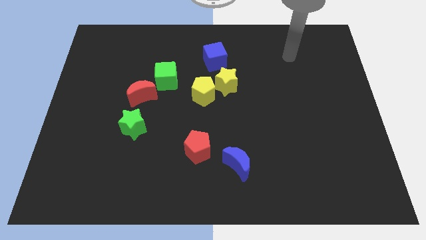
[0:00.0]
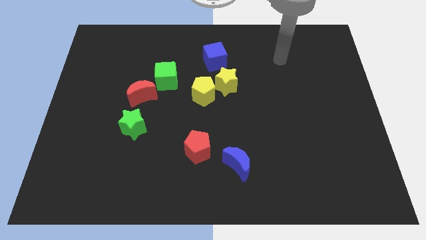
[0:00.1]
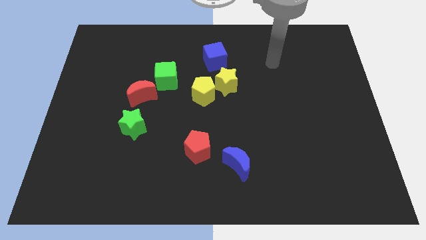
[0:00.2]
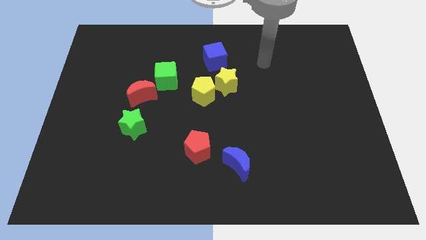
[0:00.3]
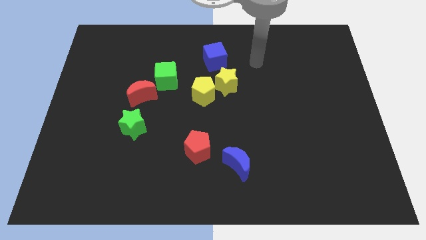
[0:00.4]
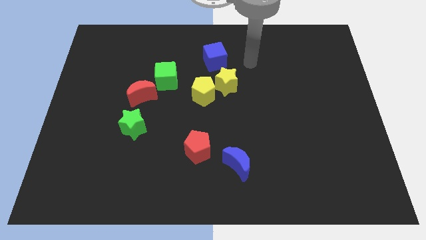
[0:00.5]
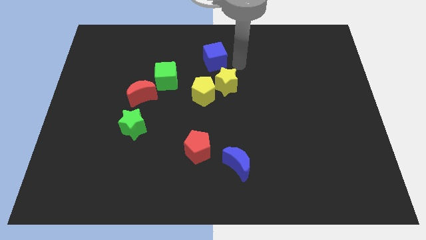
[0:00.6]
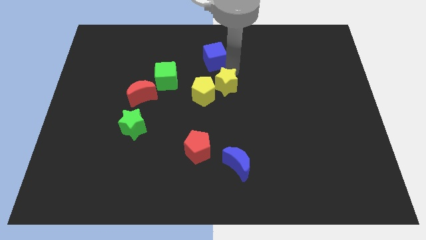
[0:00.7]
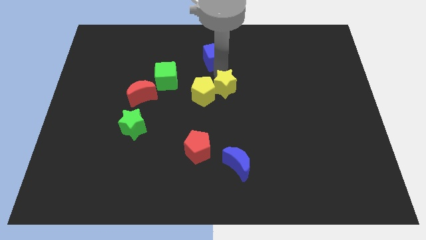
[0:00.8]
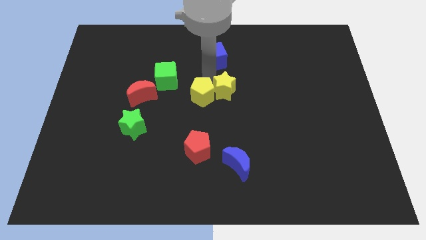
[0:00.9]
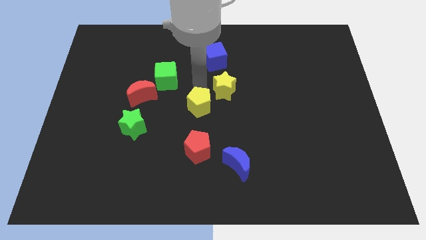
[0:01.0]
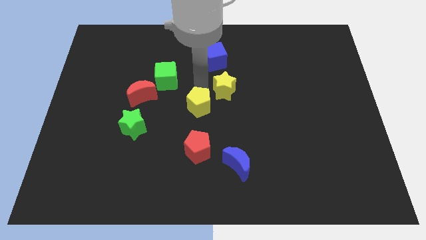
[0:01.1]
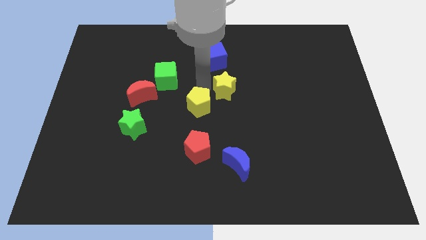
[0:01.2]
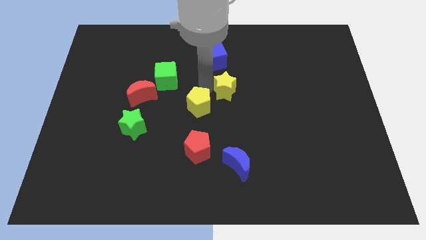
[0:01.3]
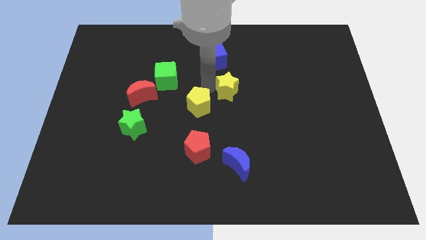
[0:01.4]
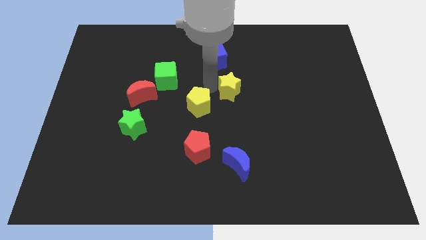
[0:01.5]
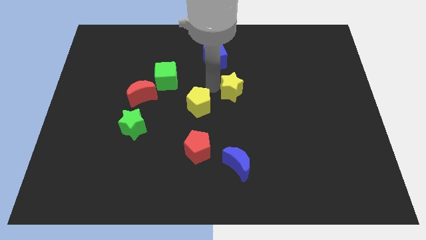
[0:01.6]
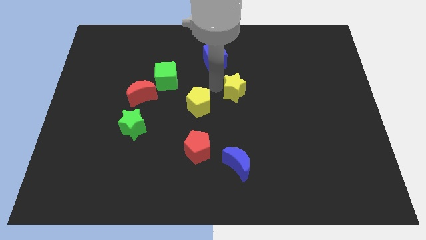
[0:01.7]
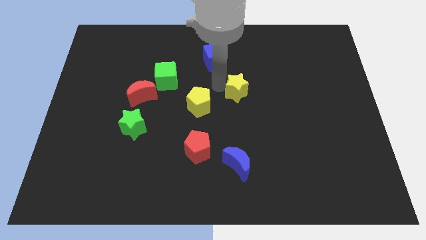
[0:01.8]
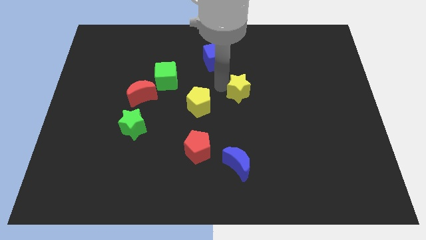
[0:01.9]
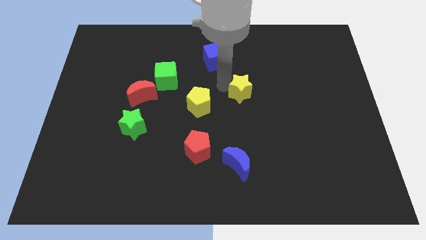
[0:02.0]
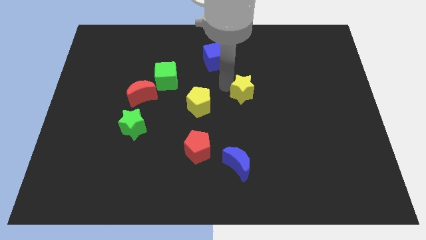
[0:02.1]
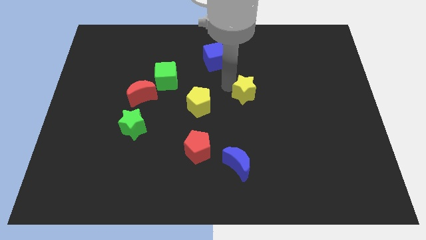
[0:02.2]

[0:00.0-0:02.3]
move the yellow star away from the yellow pentagon and blue cube

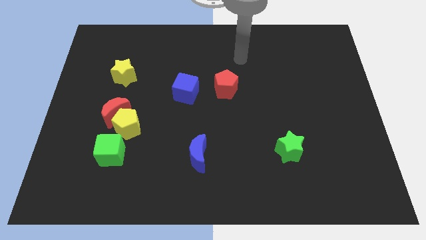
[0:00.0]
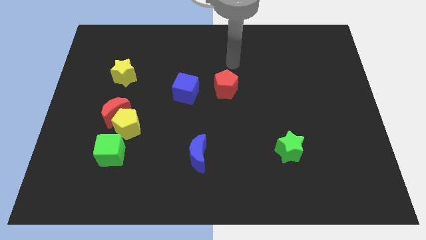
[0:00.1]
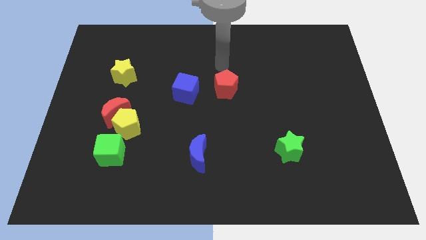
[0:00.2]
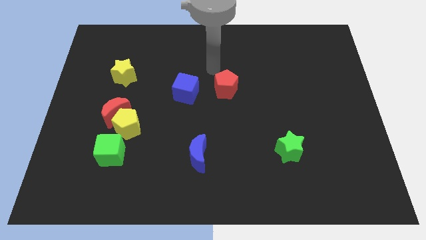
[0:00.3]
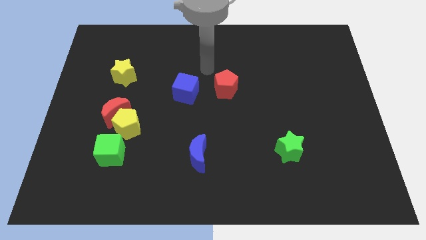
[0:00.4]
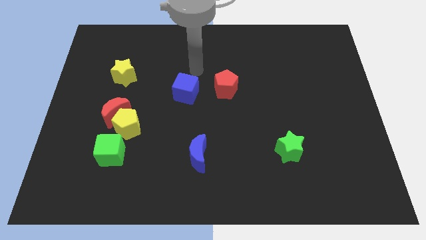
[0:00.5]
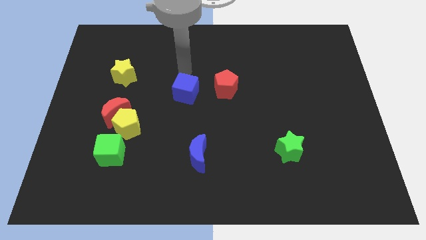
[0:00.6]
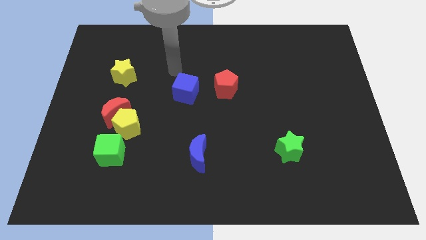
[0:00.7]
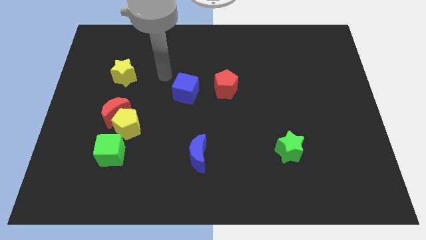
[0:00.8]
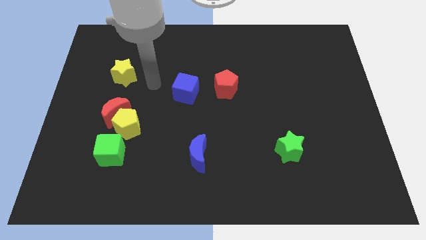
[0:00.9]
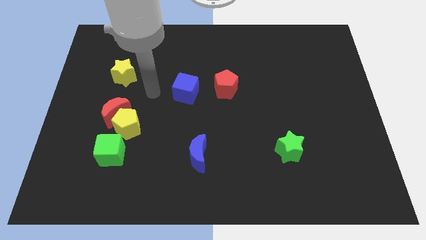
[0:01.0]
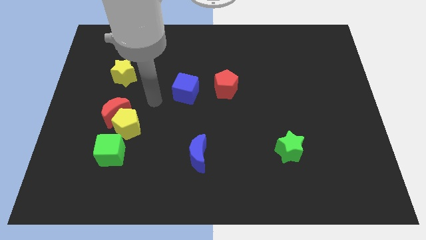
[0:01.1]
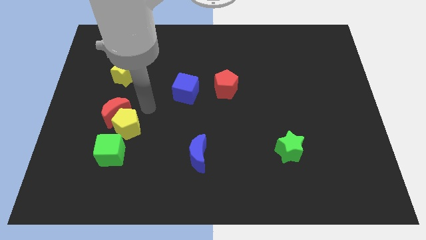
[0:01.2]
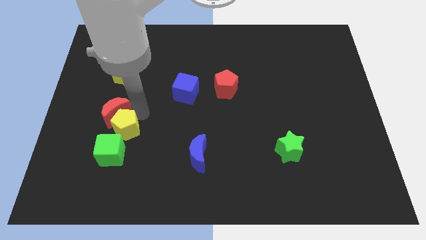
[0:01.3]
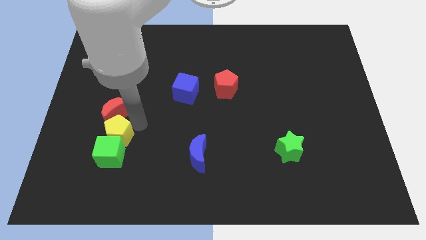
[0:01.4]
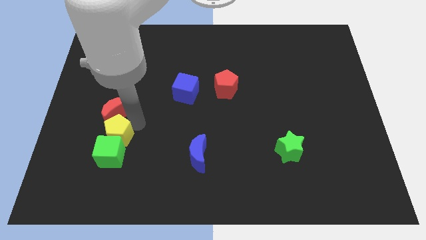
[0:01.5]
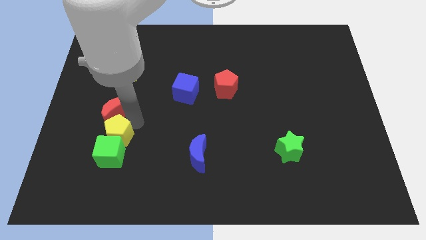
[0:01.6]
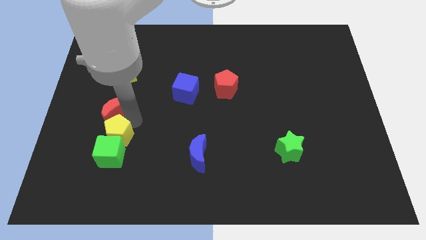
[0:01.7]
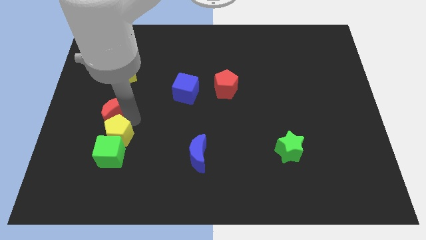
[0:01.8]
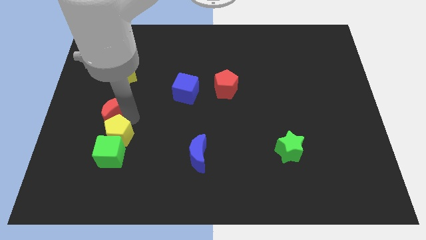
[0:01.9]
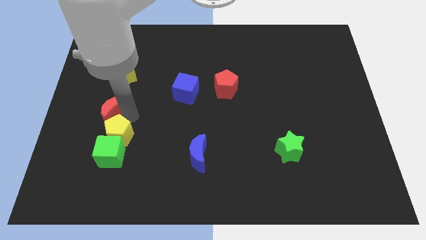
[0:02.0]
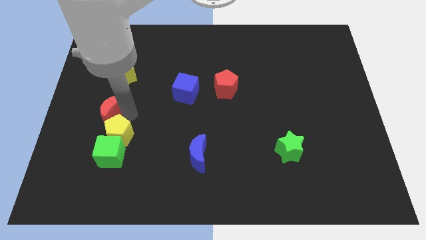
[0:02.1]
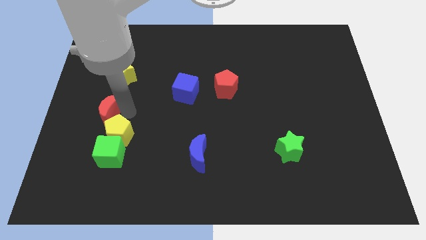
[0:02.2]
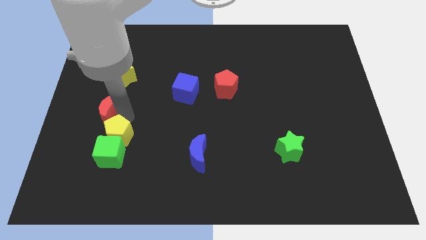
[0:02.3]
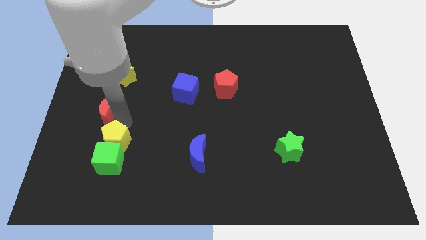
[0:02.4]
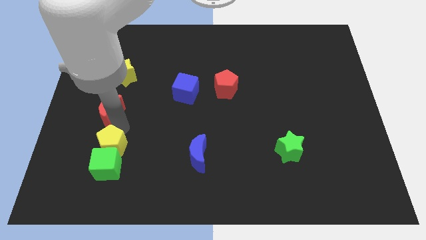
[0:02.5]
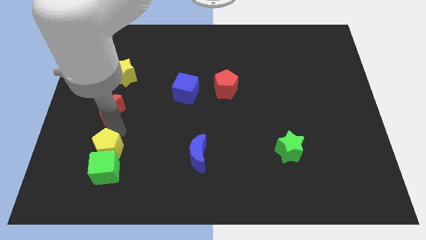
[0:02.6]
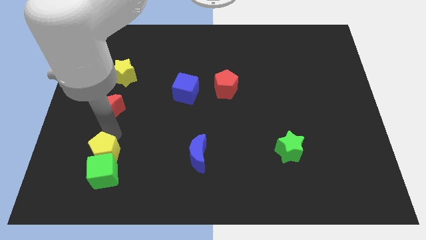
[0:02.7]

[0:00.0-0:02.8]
move the red moon away from the yellow pentagon

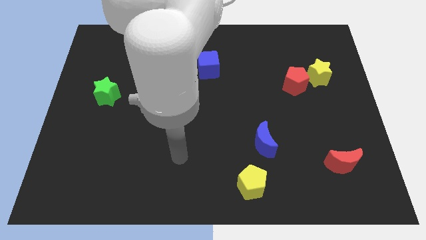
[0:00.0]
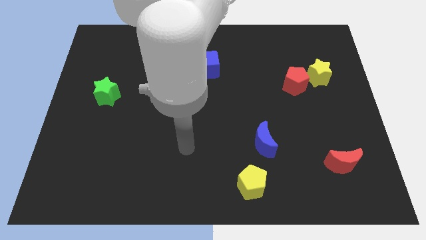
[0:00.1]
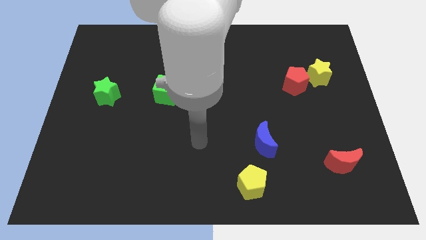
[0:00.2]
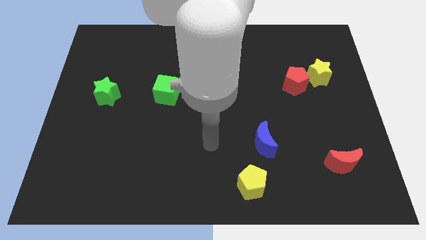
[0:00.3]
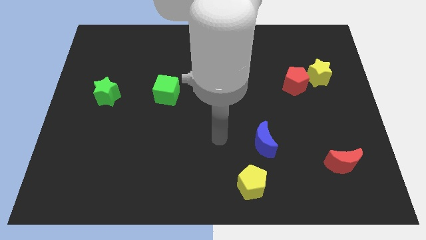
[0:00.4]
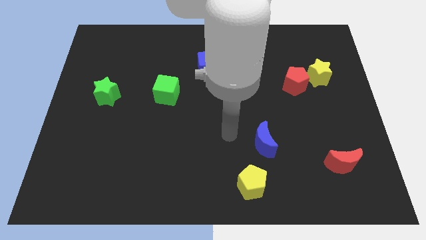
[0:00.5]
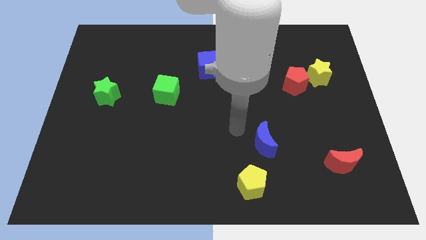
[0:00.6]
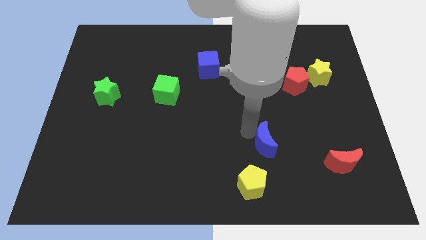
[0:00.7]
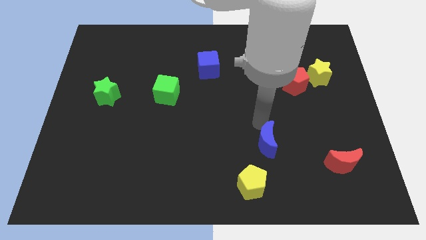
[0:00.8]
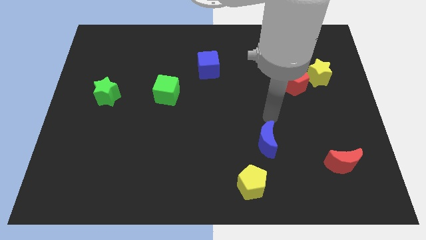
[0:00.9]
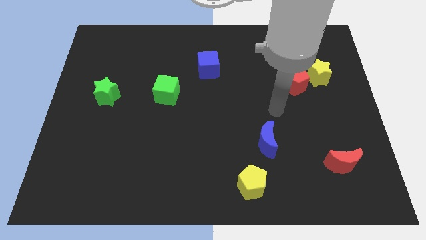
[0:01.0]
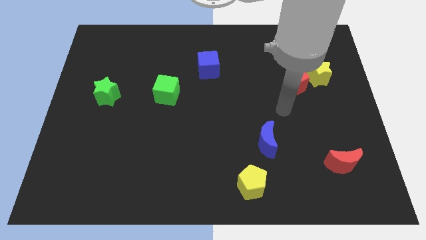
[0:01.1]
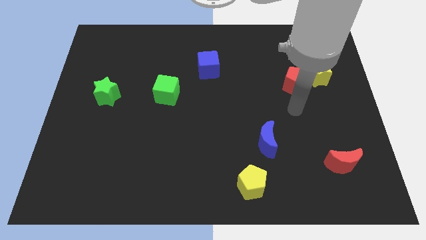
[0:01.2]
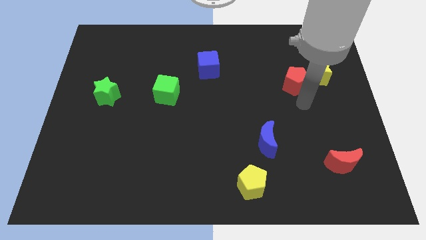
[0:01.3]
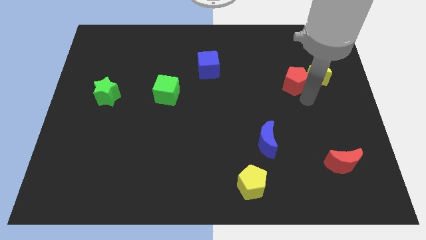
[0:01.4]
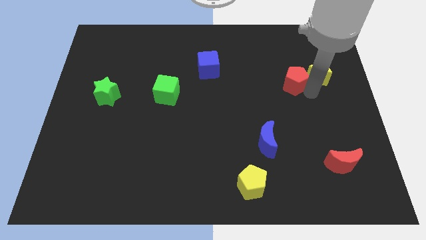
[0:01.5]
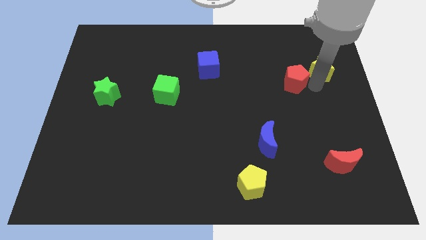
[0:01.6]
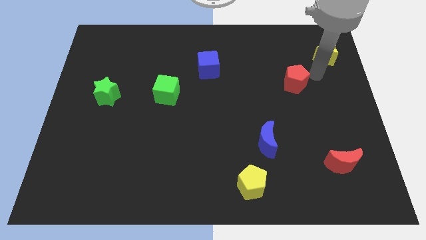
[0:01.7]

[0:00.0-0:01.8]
move the red pentagon away from the yellow star

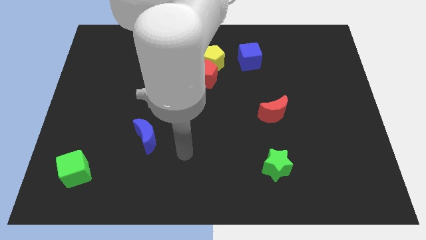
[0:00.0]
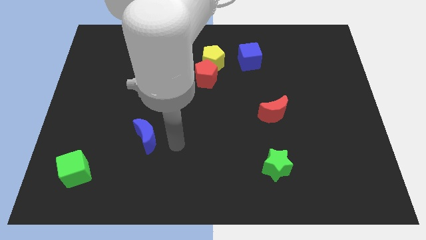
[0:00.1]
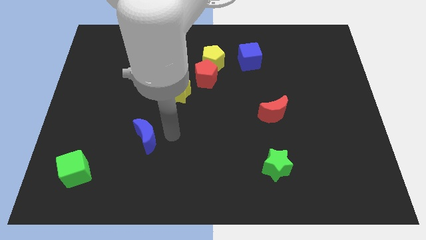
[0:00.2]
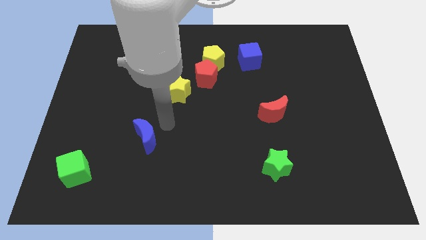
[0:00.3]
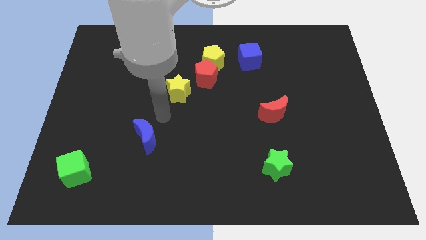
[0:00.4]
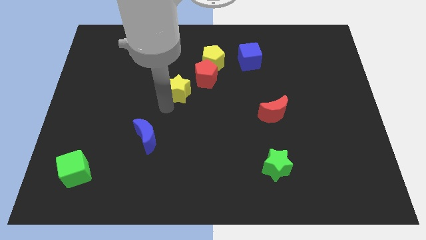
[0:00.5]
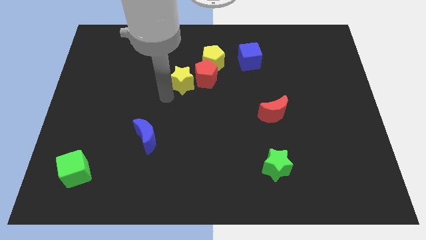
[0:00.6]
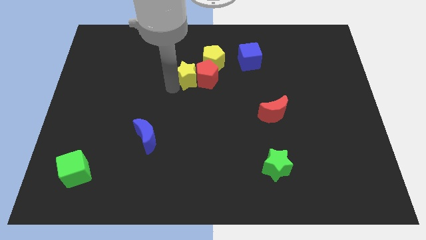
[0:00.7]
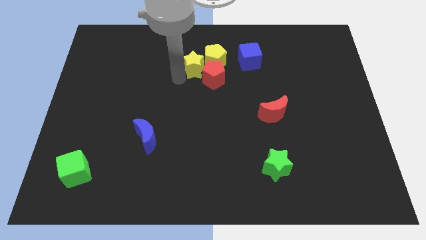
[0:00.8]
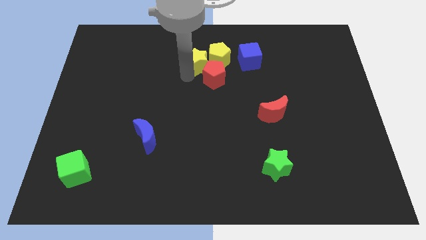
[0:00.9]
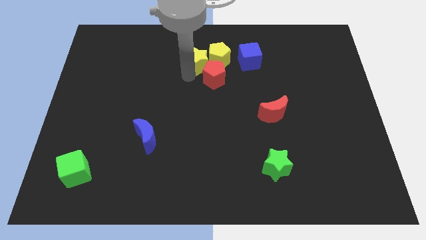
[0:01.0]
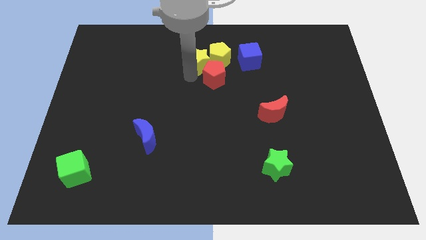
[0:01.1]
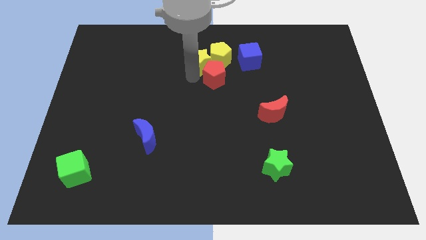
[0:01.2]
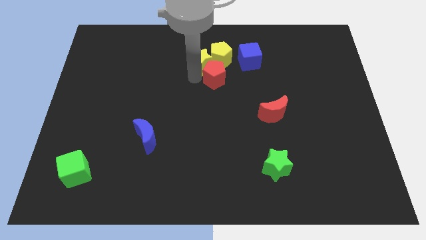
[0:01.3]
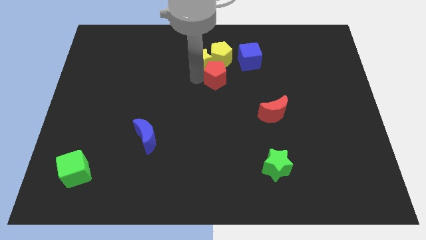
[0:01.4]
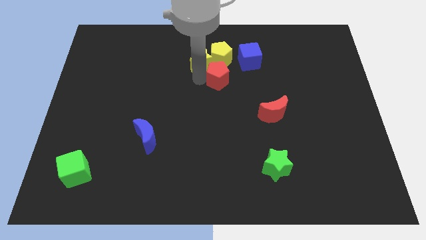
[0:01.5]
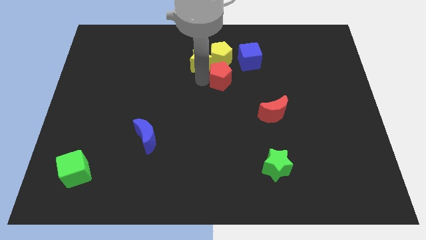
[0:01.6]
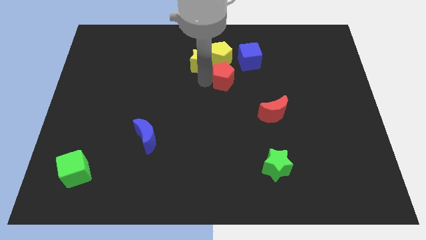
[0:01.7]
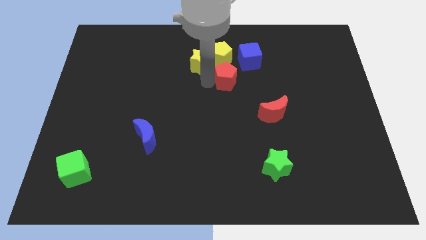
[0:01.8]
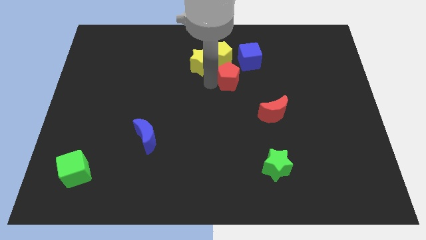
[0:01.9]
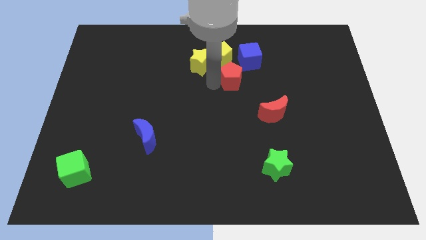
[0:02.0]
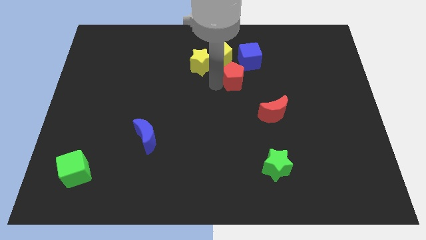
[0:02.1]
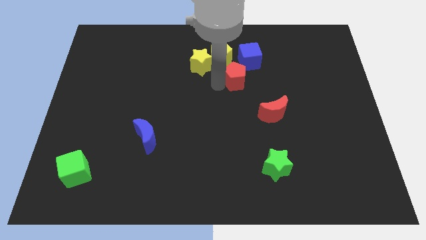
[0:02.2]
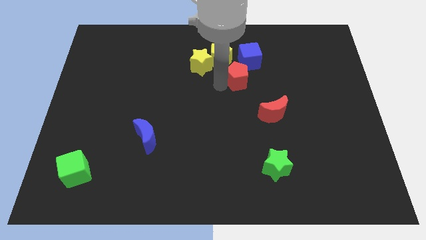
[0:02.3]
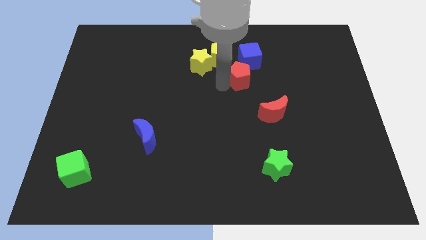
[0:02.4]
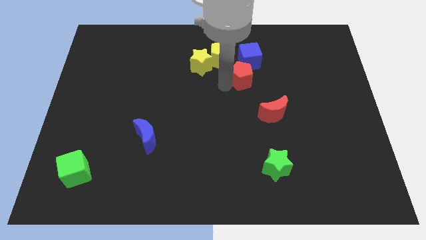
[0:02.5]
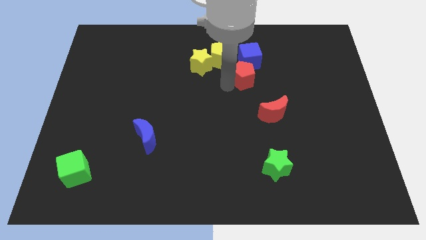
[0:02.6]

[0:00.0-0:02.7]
move the red pentagon away from the yellow pentagon and yellow star
